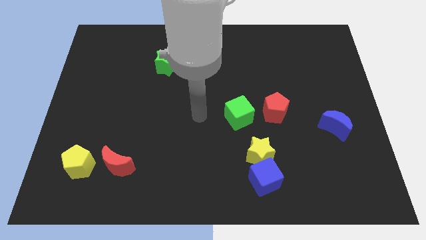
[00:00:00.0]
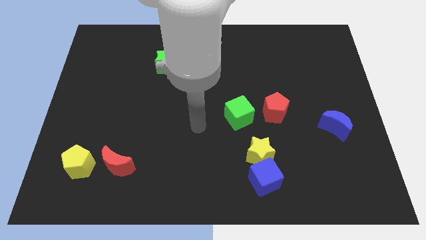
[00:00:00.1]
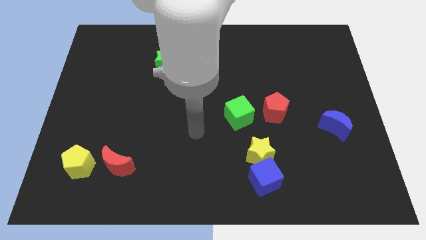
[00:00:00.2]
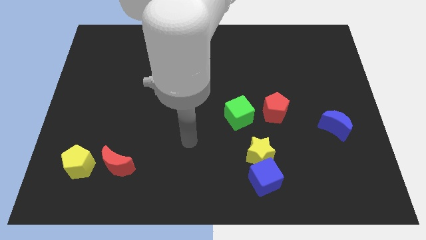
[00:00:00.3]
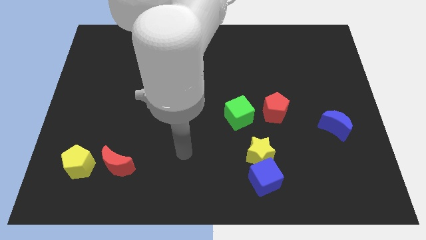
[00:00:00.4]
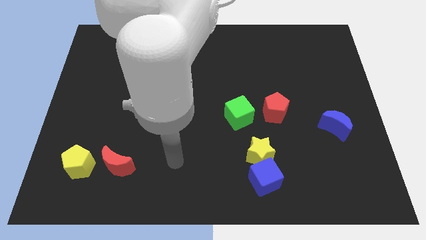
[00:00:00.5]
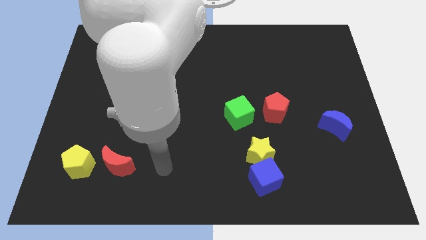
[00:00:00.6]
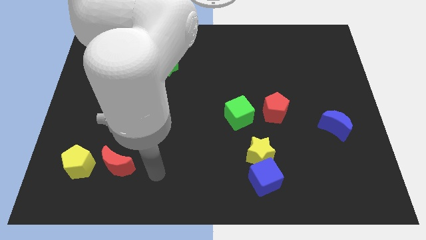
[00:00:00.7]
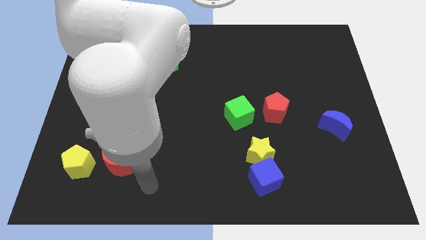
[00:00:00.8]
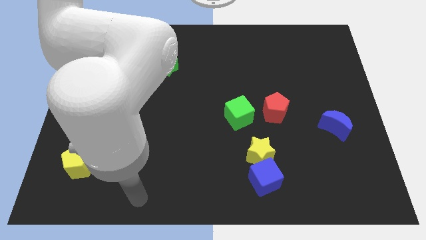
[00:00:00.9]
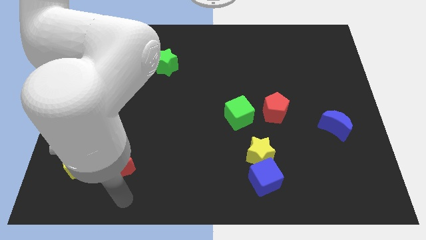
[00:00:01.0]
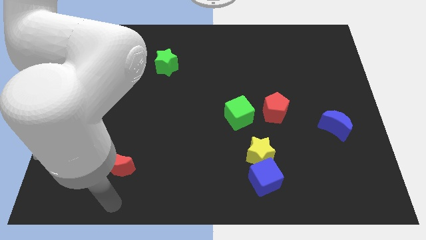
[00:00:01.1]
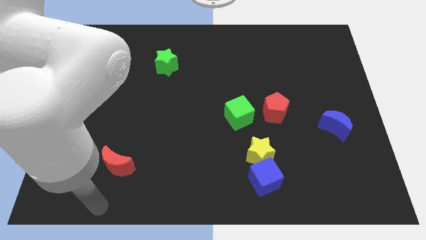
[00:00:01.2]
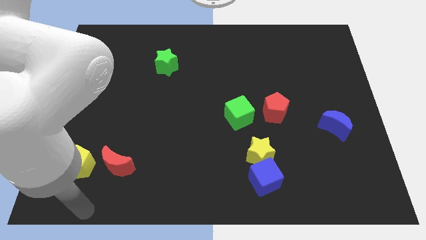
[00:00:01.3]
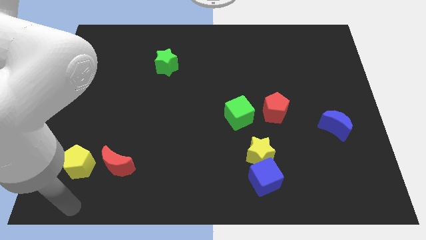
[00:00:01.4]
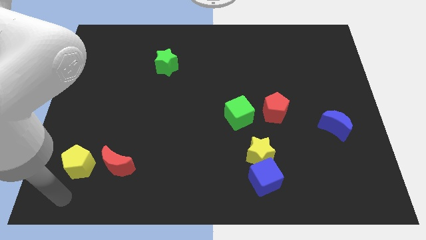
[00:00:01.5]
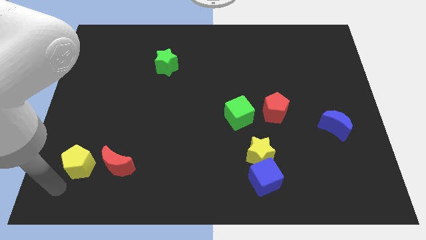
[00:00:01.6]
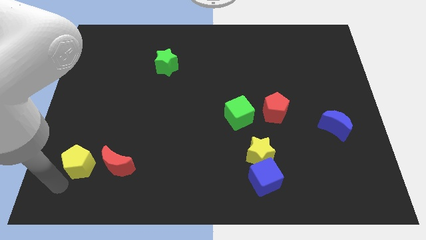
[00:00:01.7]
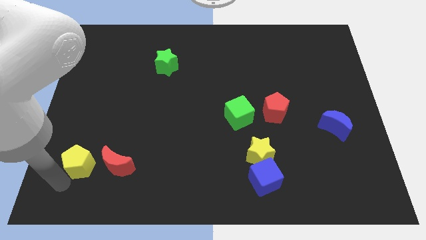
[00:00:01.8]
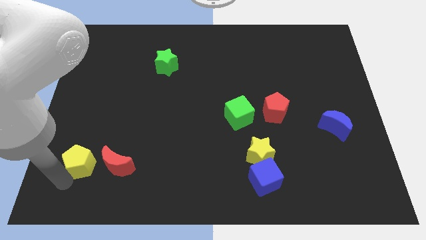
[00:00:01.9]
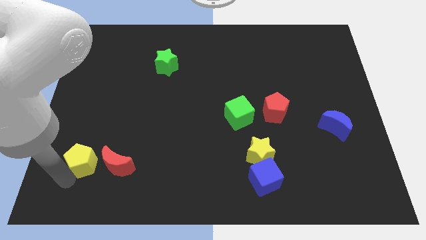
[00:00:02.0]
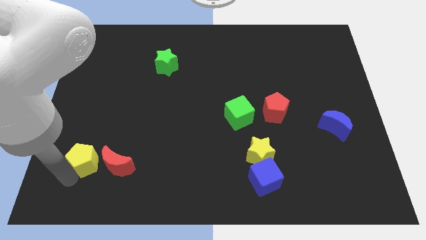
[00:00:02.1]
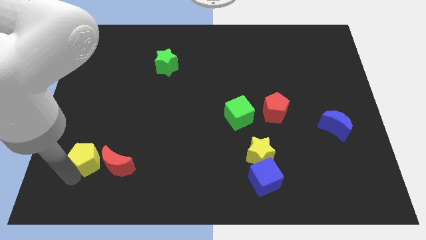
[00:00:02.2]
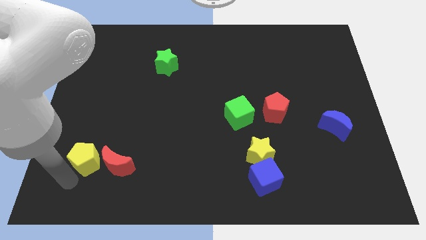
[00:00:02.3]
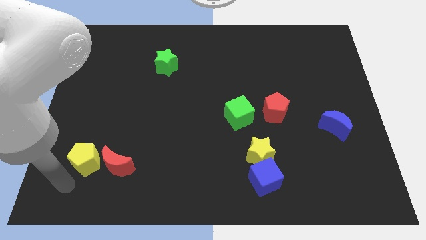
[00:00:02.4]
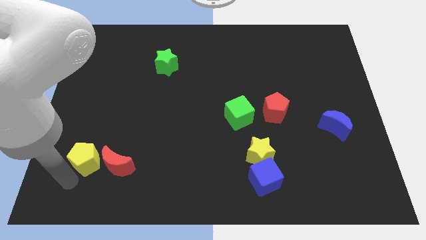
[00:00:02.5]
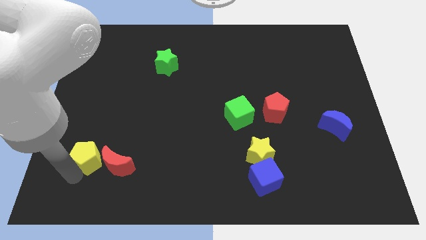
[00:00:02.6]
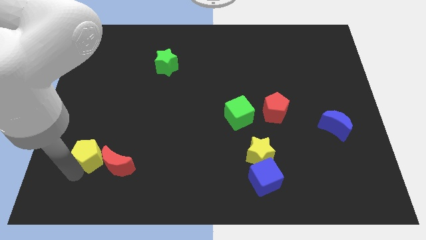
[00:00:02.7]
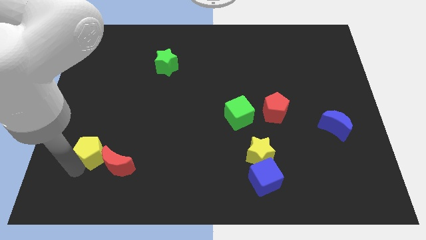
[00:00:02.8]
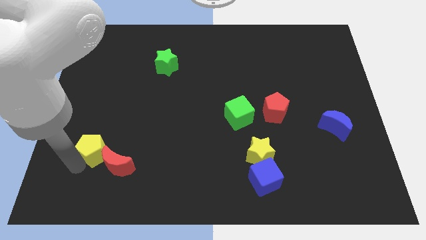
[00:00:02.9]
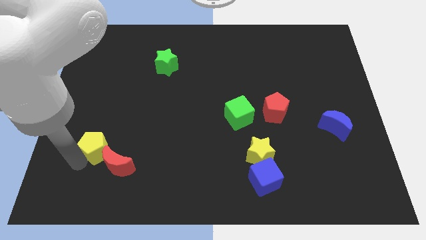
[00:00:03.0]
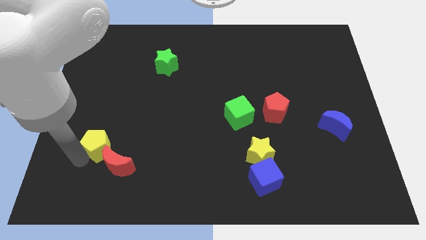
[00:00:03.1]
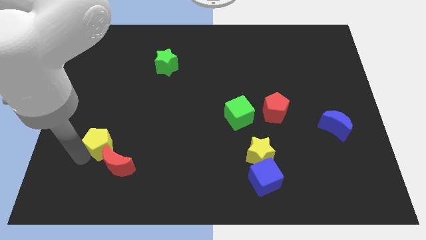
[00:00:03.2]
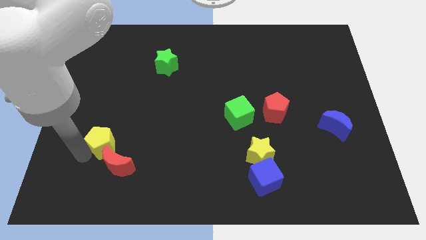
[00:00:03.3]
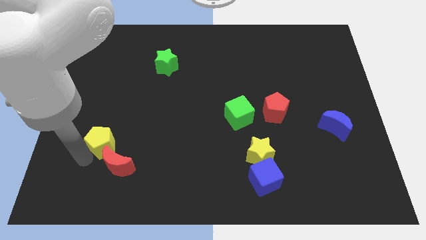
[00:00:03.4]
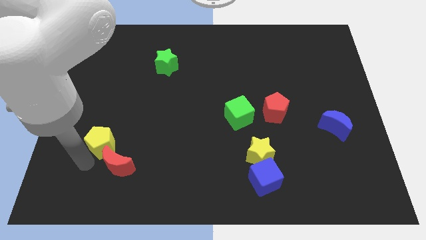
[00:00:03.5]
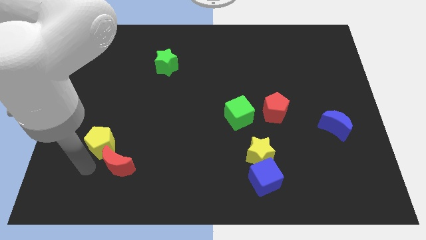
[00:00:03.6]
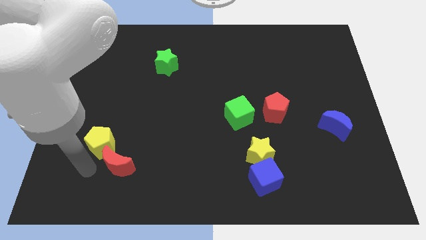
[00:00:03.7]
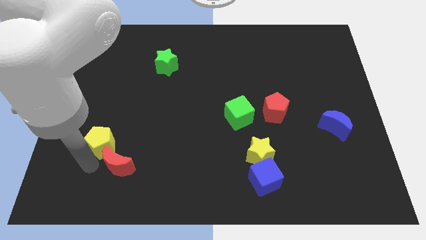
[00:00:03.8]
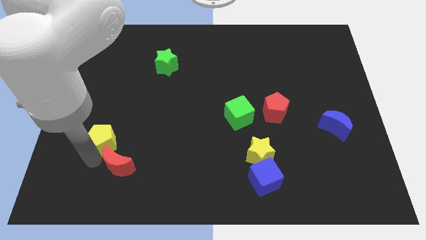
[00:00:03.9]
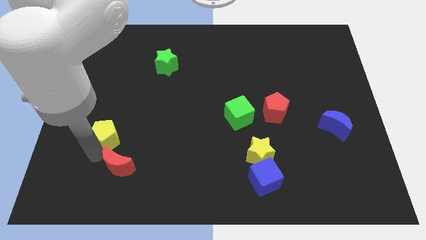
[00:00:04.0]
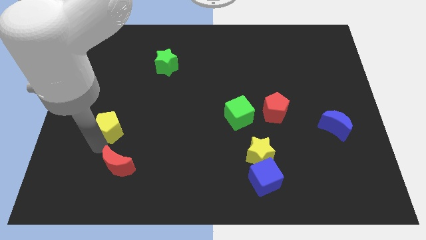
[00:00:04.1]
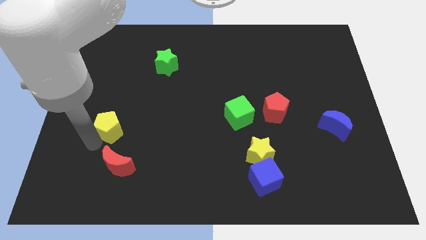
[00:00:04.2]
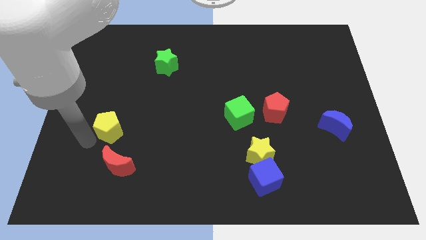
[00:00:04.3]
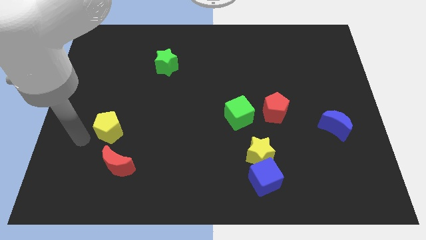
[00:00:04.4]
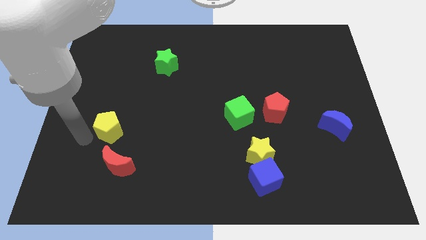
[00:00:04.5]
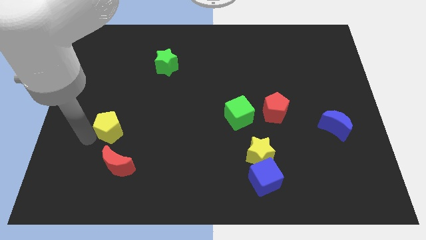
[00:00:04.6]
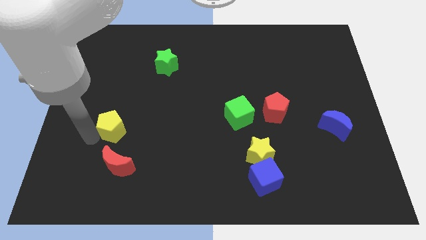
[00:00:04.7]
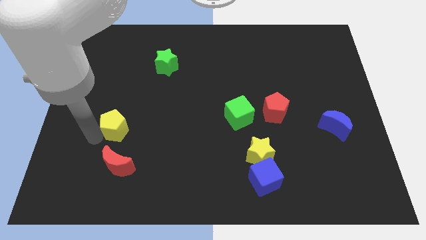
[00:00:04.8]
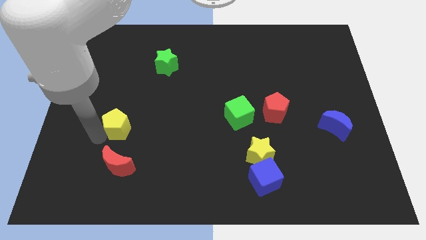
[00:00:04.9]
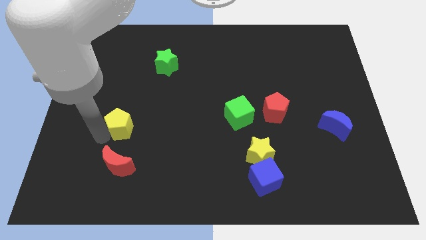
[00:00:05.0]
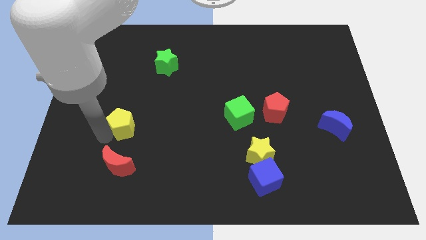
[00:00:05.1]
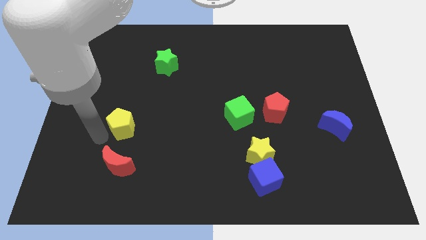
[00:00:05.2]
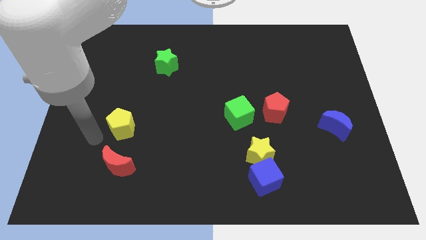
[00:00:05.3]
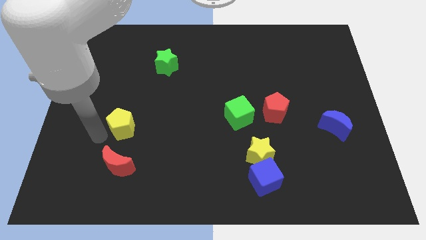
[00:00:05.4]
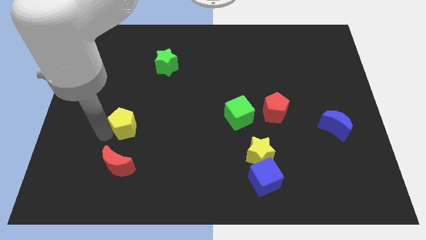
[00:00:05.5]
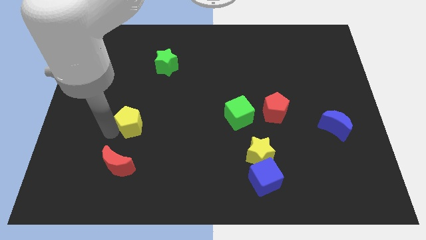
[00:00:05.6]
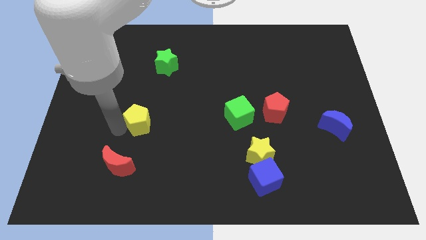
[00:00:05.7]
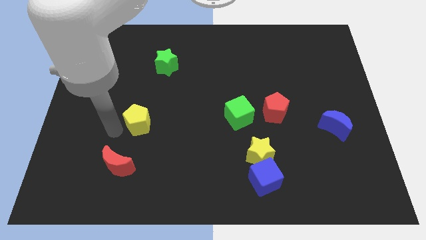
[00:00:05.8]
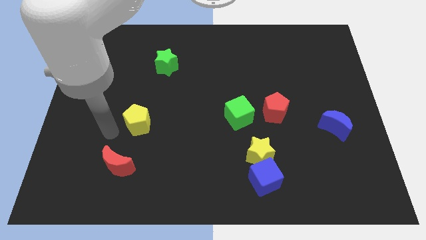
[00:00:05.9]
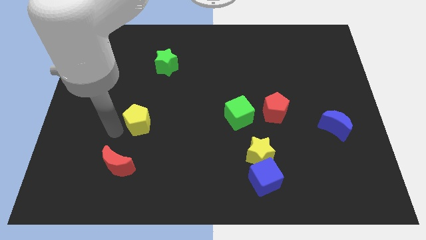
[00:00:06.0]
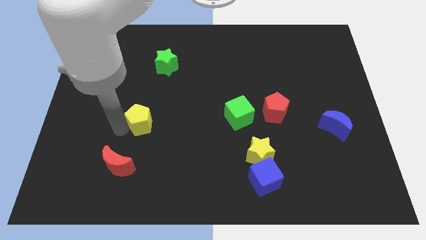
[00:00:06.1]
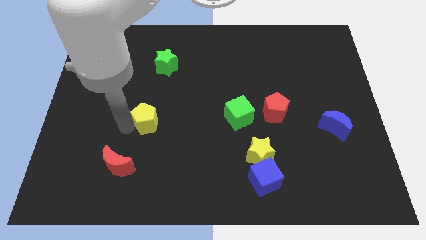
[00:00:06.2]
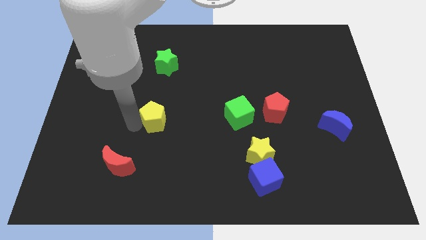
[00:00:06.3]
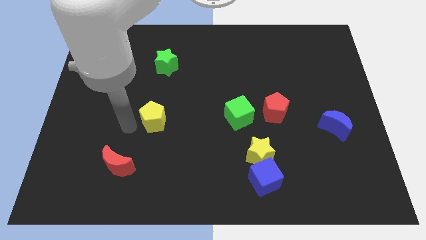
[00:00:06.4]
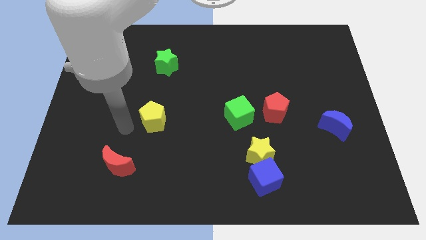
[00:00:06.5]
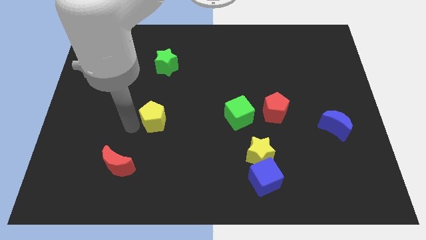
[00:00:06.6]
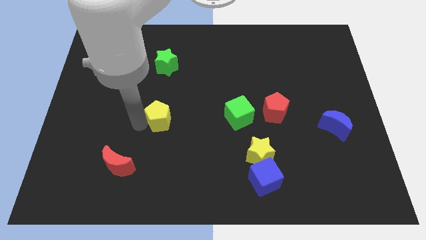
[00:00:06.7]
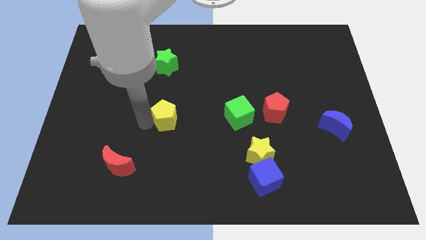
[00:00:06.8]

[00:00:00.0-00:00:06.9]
put the yellow pentagon to the middle of the board

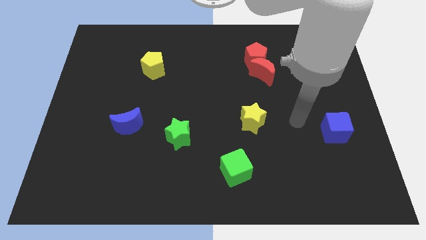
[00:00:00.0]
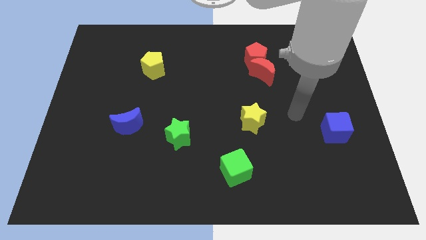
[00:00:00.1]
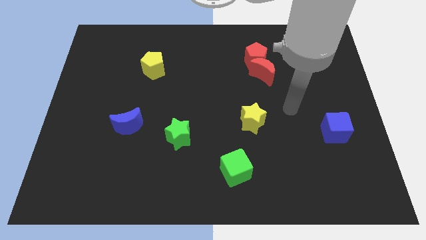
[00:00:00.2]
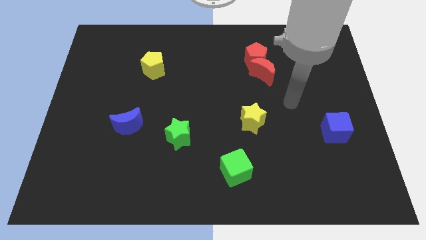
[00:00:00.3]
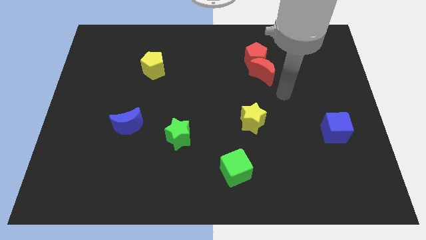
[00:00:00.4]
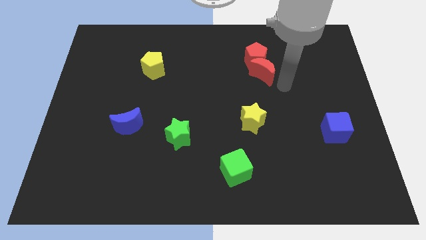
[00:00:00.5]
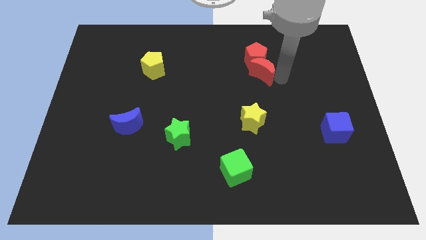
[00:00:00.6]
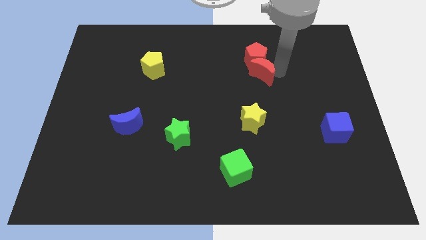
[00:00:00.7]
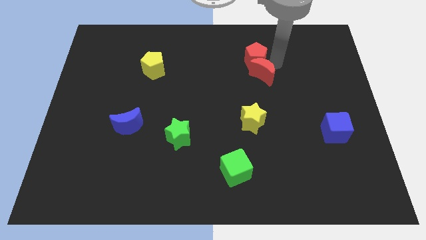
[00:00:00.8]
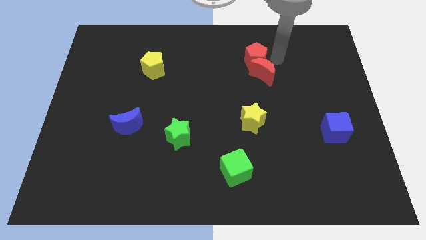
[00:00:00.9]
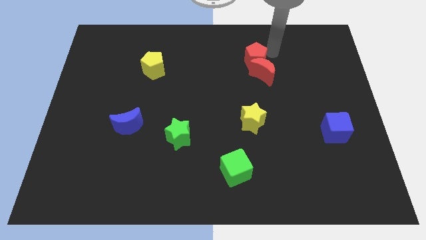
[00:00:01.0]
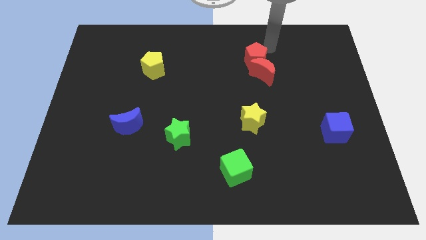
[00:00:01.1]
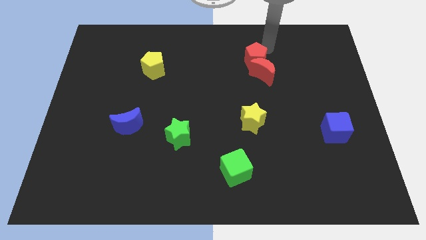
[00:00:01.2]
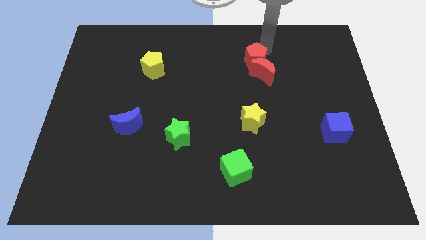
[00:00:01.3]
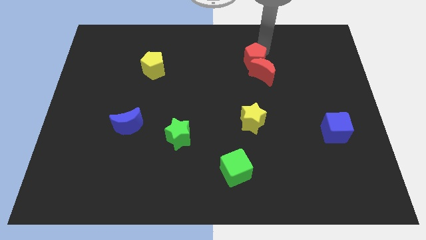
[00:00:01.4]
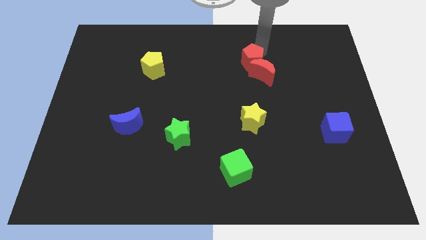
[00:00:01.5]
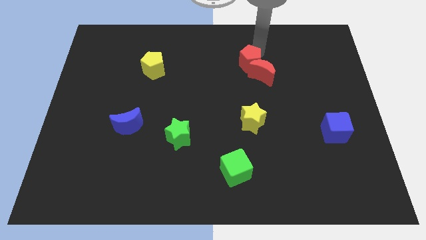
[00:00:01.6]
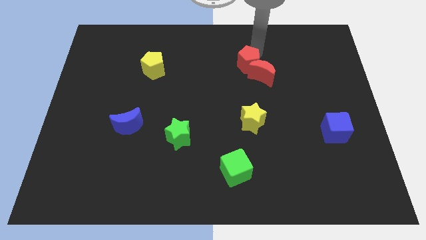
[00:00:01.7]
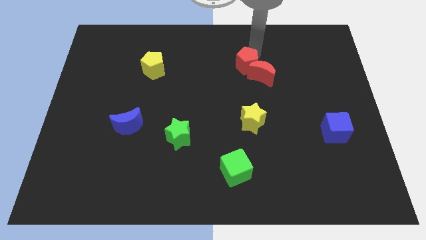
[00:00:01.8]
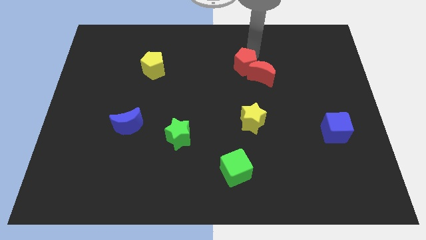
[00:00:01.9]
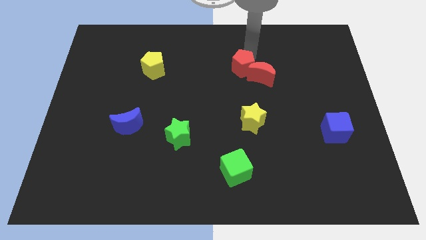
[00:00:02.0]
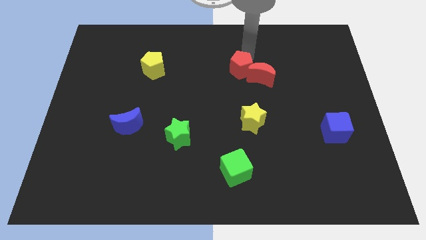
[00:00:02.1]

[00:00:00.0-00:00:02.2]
move the red pentagon to the center
